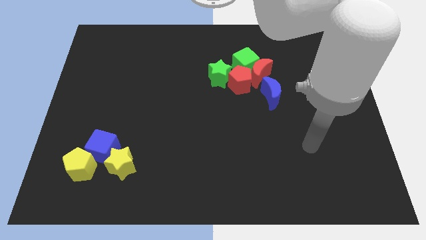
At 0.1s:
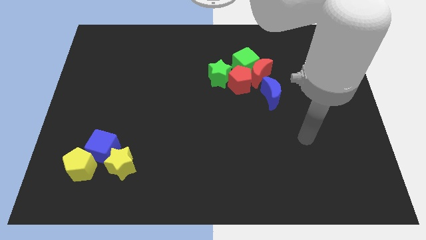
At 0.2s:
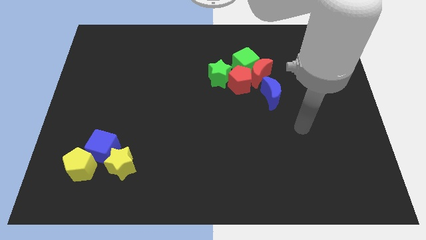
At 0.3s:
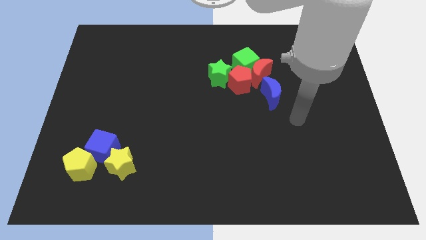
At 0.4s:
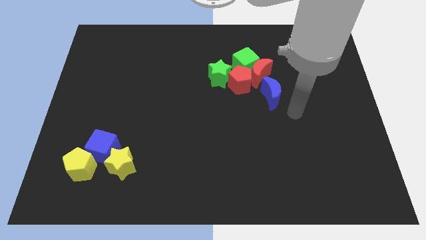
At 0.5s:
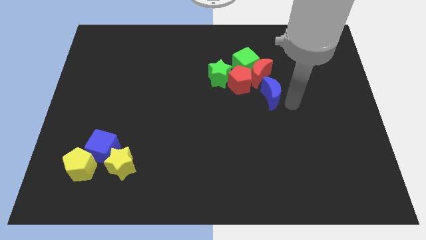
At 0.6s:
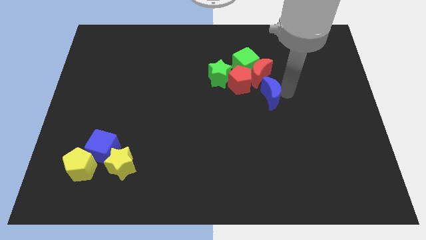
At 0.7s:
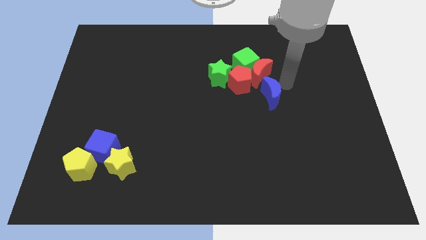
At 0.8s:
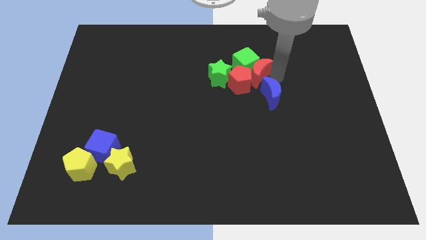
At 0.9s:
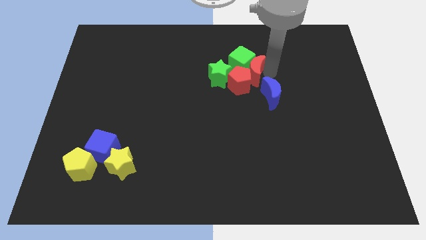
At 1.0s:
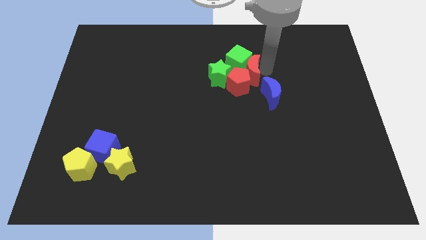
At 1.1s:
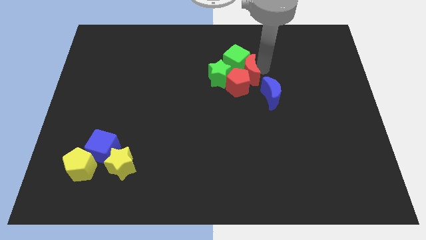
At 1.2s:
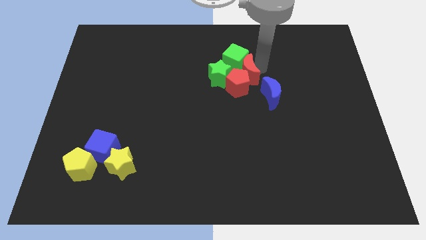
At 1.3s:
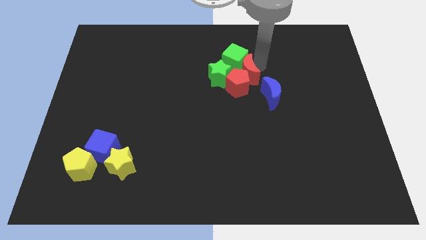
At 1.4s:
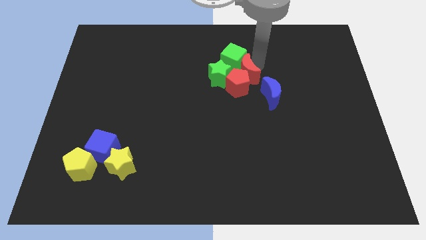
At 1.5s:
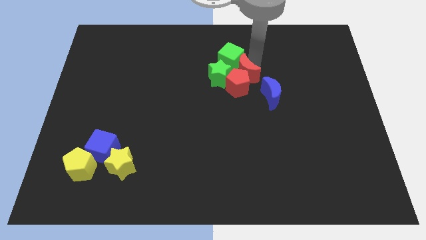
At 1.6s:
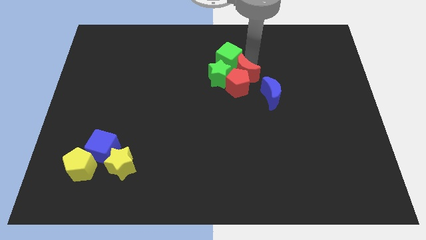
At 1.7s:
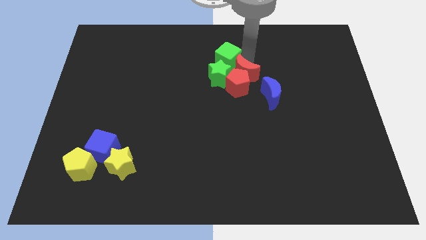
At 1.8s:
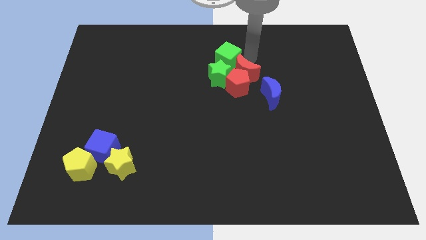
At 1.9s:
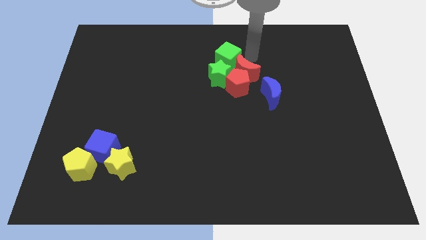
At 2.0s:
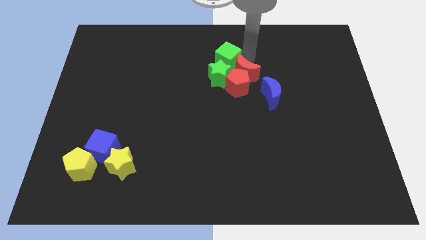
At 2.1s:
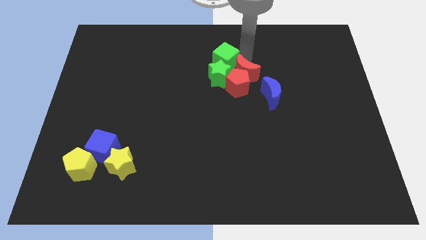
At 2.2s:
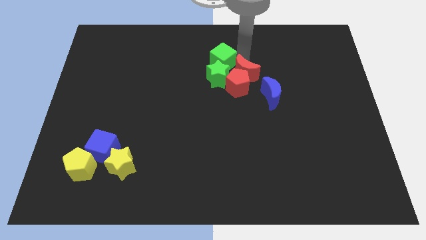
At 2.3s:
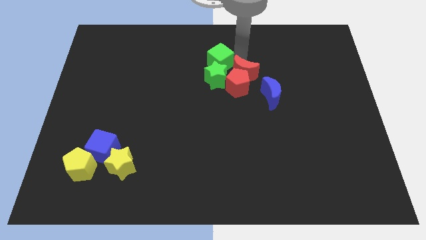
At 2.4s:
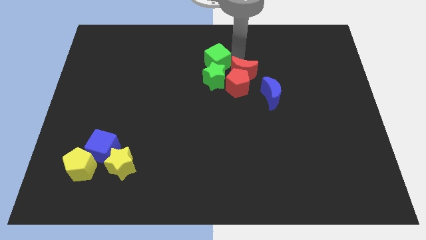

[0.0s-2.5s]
slide the green cube slightly to the left

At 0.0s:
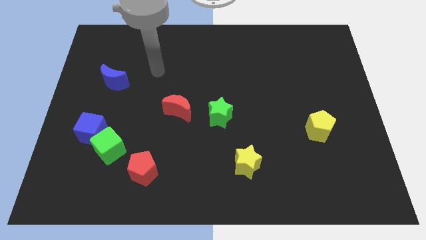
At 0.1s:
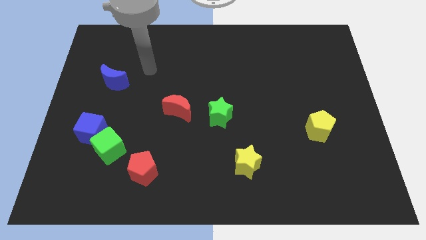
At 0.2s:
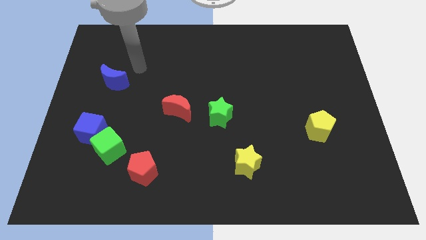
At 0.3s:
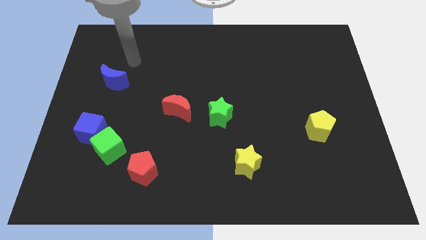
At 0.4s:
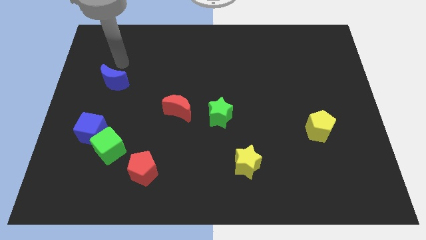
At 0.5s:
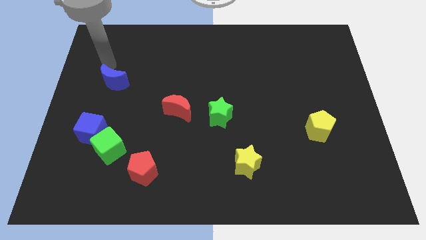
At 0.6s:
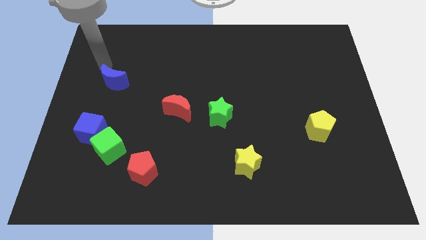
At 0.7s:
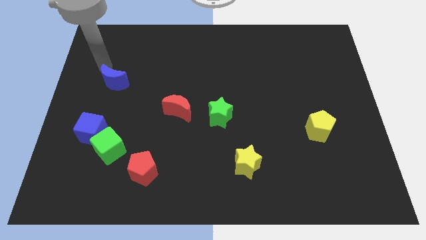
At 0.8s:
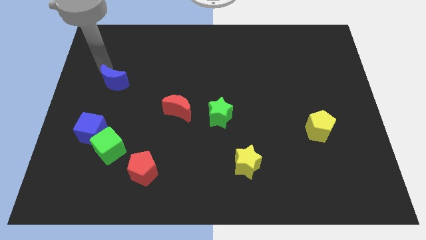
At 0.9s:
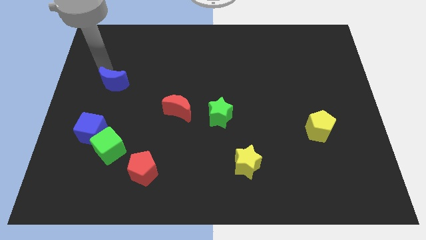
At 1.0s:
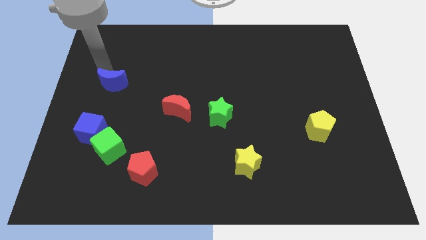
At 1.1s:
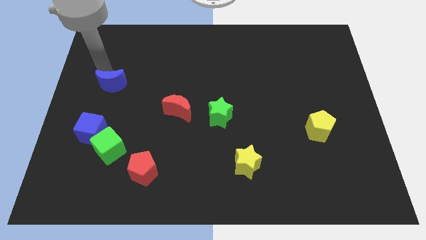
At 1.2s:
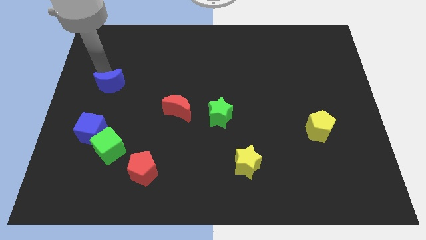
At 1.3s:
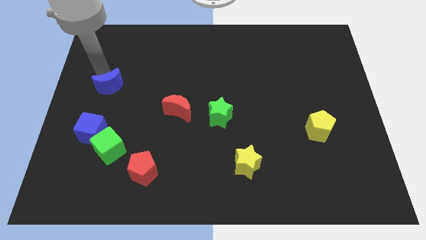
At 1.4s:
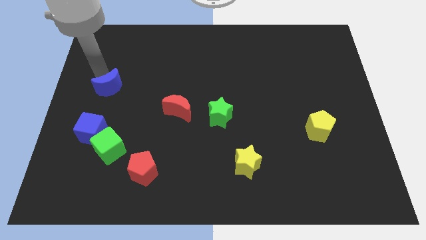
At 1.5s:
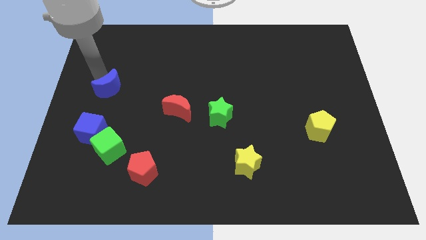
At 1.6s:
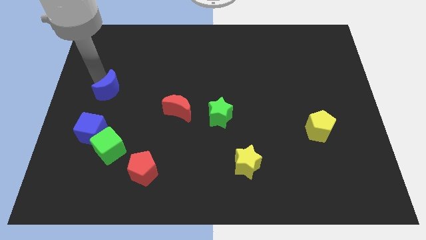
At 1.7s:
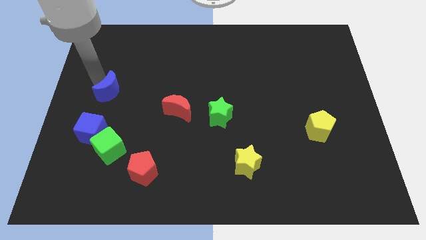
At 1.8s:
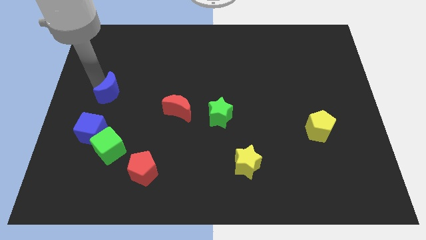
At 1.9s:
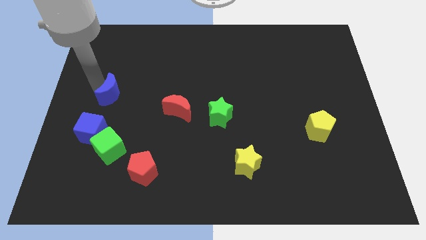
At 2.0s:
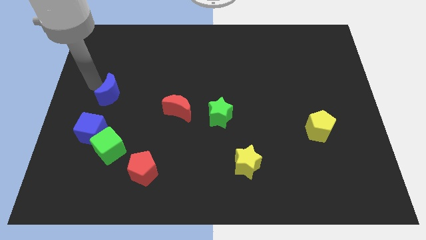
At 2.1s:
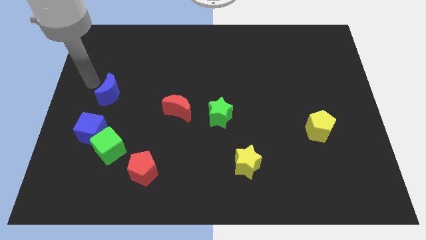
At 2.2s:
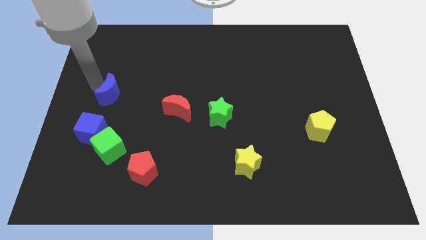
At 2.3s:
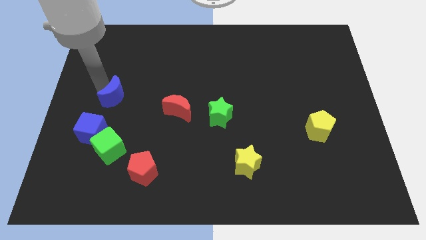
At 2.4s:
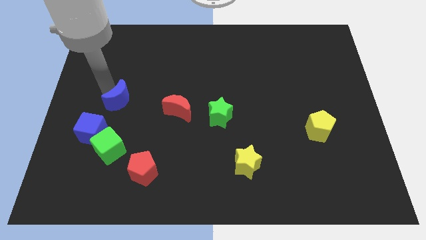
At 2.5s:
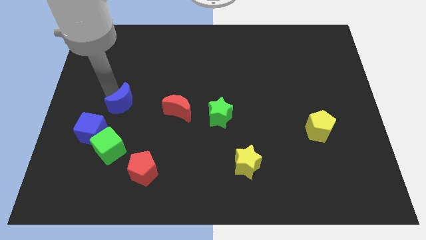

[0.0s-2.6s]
move the blue moon downwards and to the right somewhat

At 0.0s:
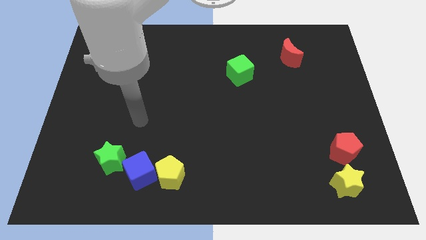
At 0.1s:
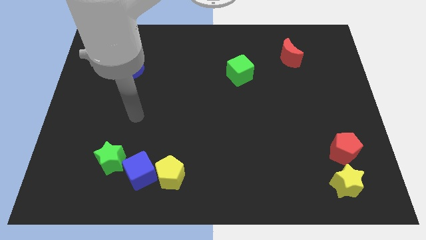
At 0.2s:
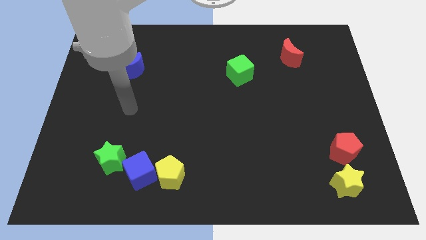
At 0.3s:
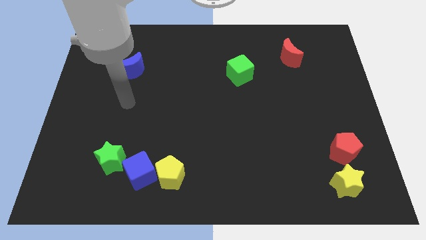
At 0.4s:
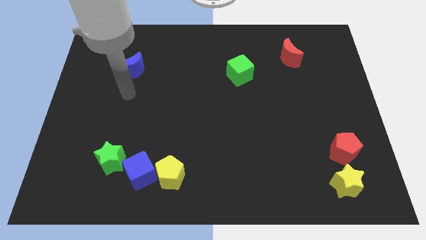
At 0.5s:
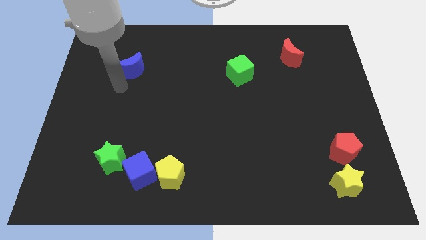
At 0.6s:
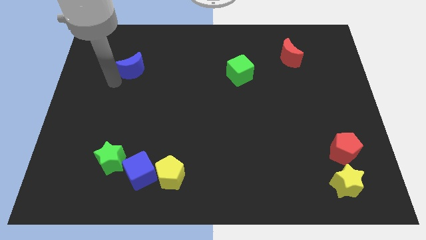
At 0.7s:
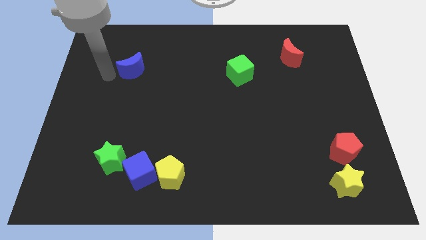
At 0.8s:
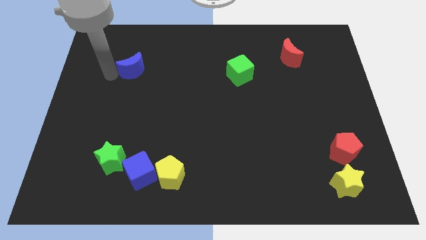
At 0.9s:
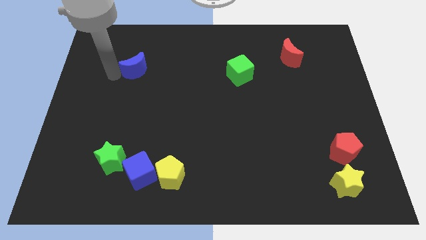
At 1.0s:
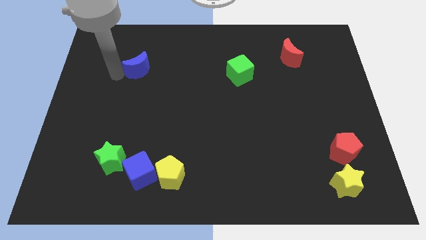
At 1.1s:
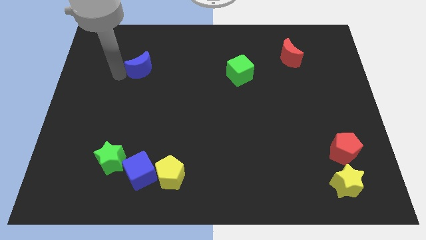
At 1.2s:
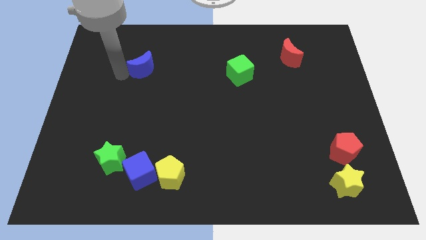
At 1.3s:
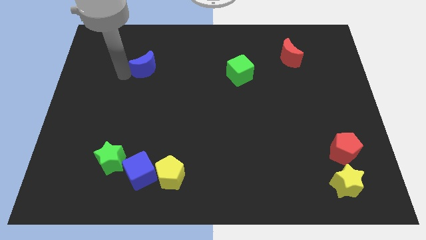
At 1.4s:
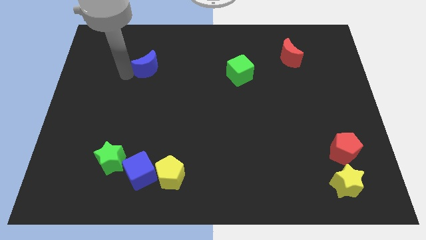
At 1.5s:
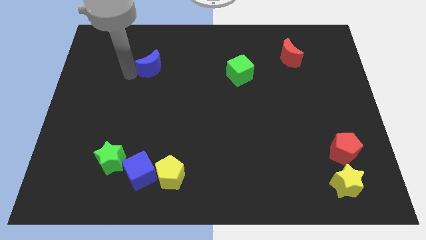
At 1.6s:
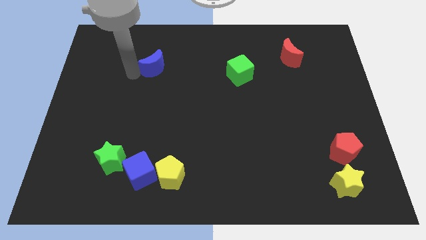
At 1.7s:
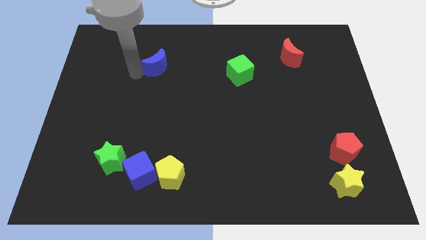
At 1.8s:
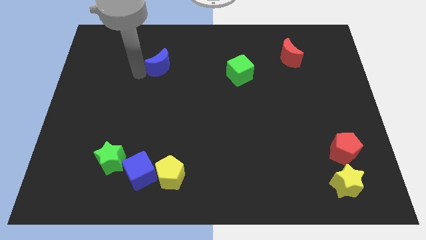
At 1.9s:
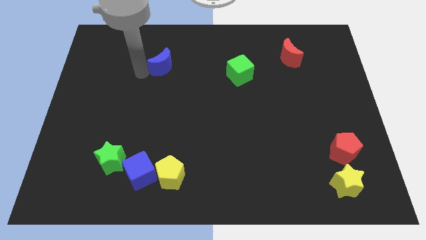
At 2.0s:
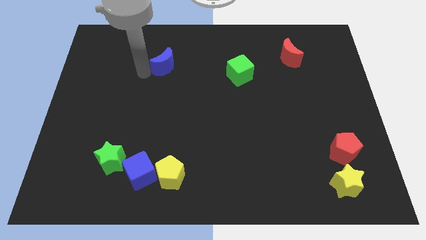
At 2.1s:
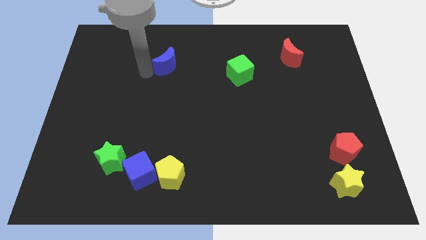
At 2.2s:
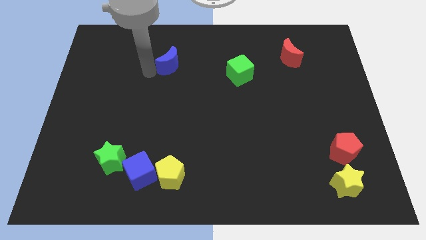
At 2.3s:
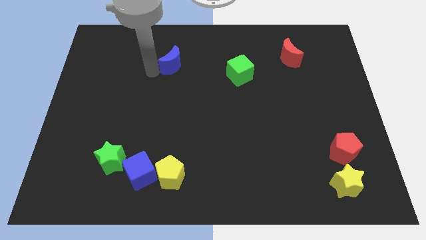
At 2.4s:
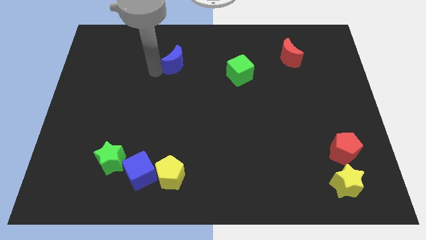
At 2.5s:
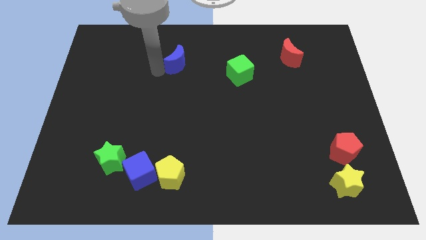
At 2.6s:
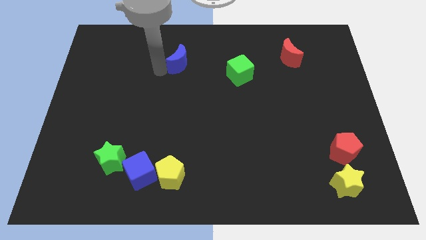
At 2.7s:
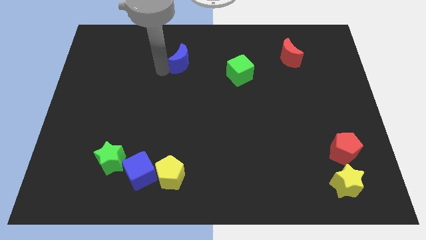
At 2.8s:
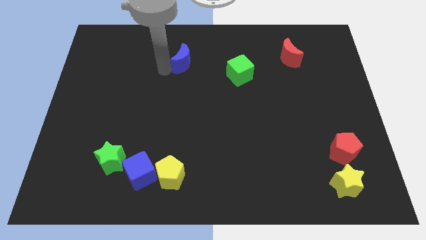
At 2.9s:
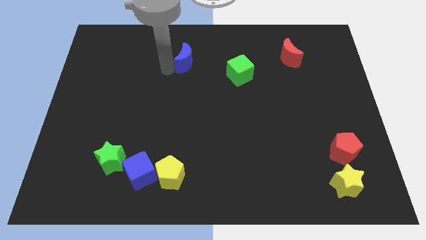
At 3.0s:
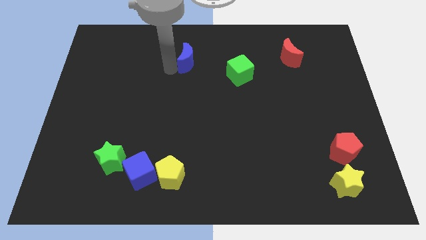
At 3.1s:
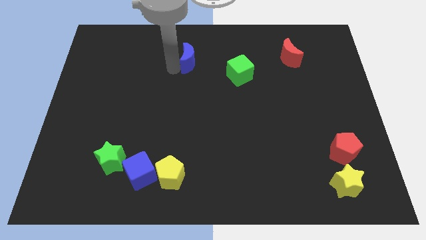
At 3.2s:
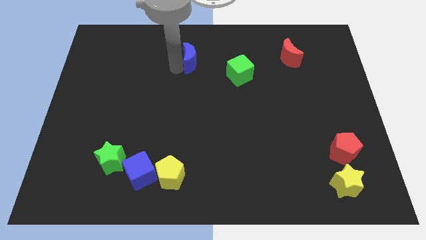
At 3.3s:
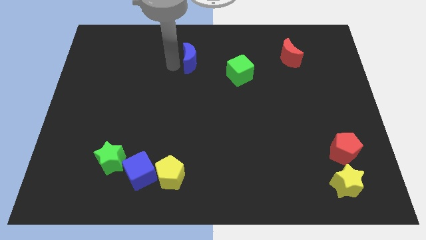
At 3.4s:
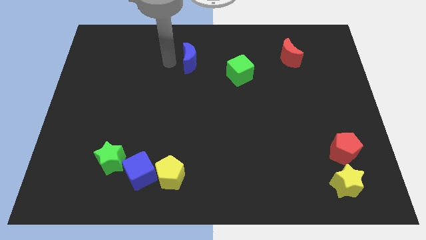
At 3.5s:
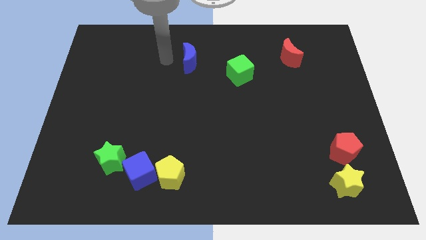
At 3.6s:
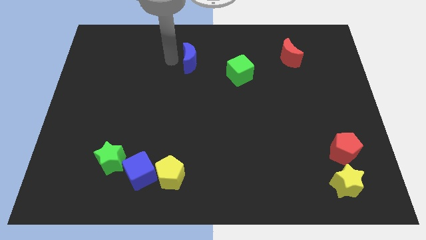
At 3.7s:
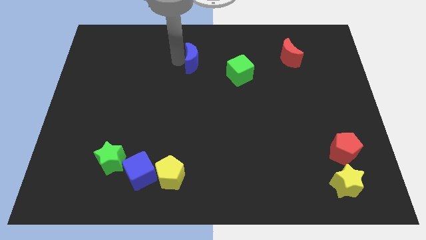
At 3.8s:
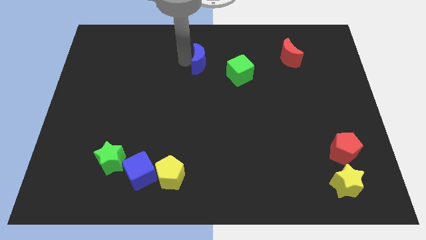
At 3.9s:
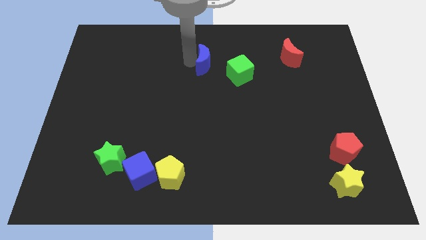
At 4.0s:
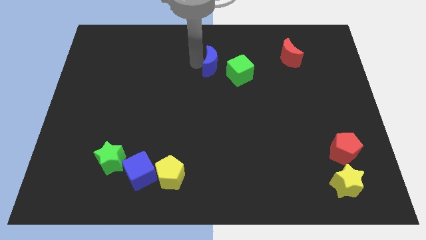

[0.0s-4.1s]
slide the blue moon right
